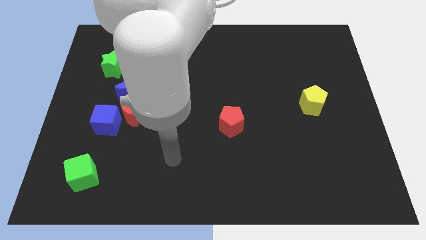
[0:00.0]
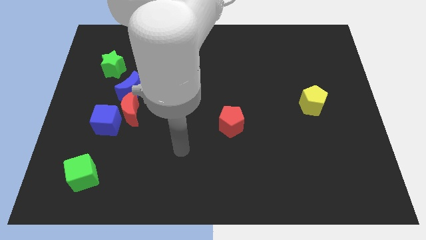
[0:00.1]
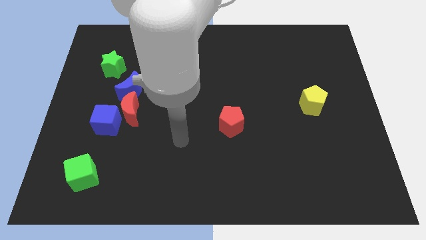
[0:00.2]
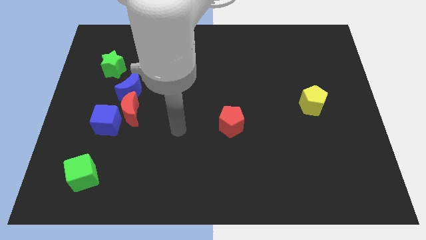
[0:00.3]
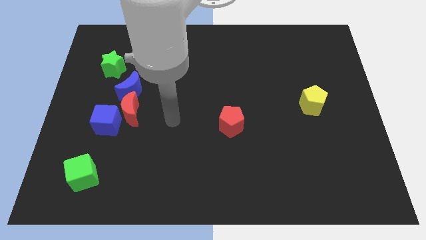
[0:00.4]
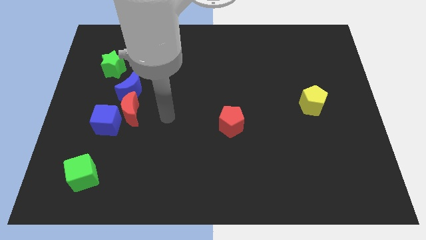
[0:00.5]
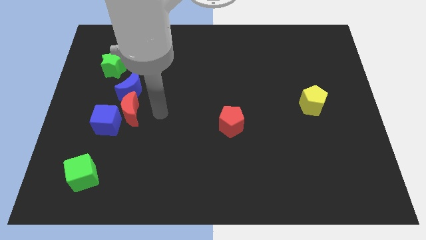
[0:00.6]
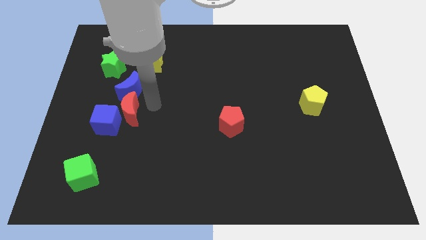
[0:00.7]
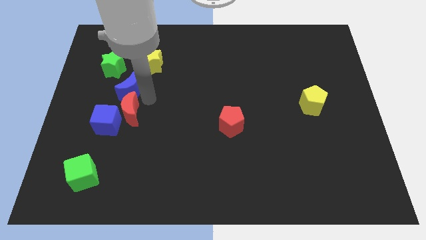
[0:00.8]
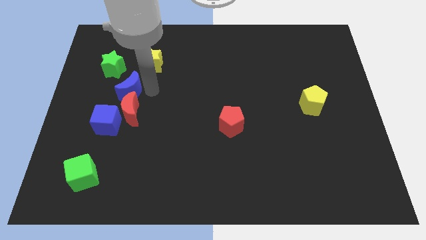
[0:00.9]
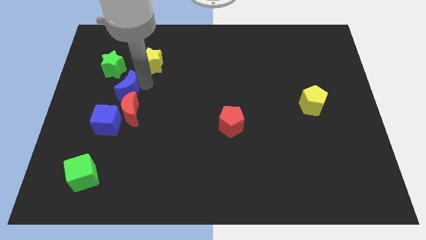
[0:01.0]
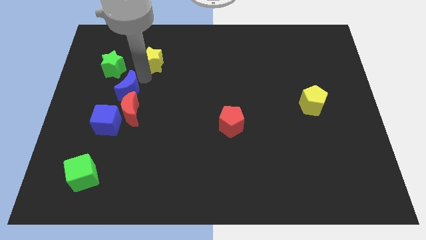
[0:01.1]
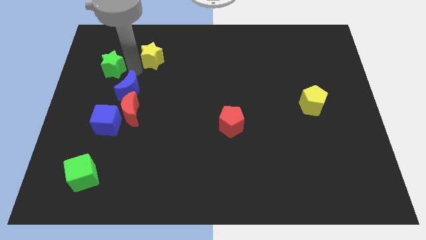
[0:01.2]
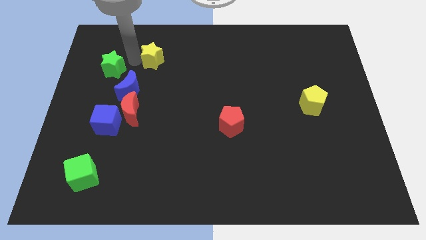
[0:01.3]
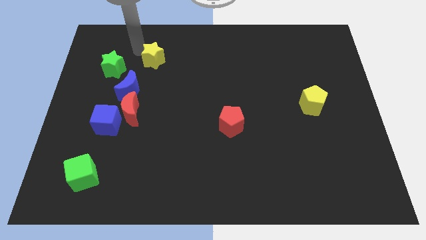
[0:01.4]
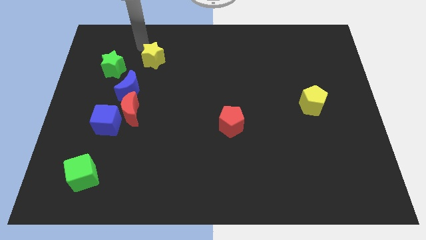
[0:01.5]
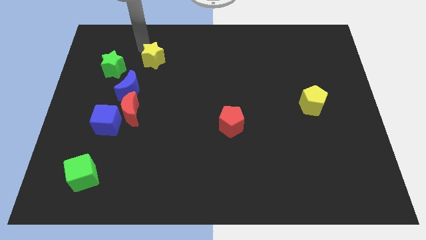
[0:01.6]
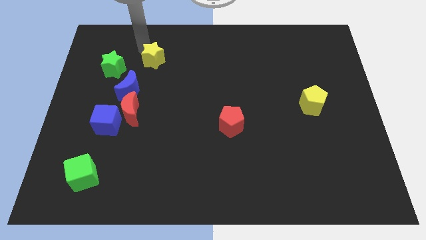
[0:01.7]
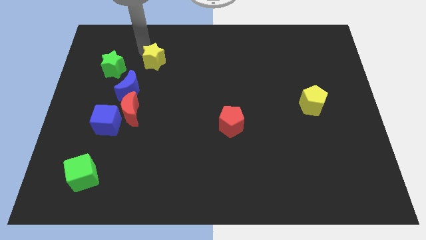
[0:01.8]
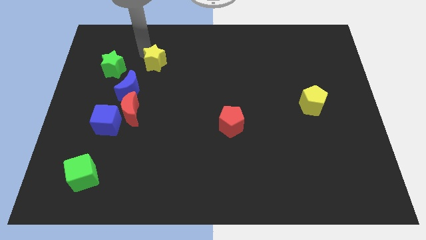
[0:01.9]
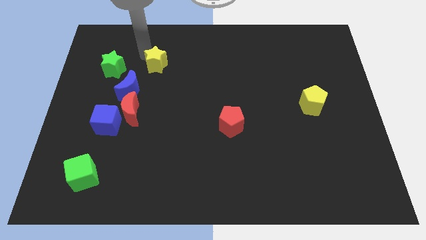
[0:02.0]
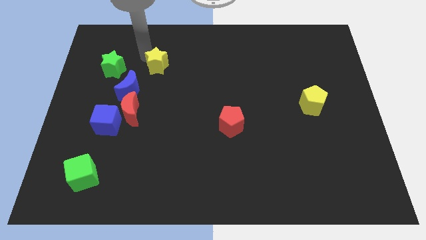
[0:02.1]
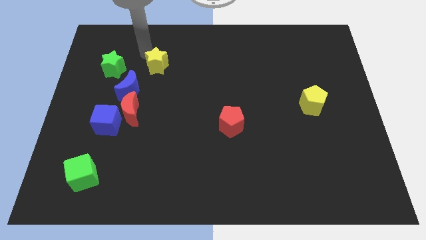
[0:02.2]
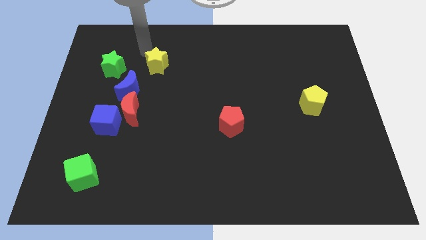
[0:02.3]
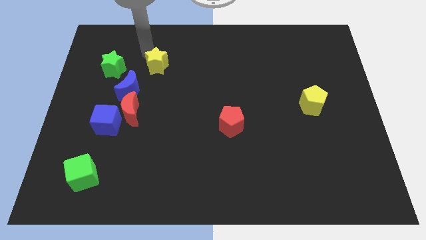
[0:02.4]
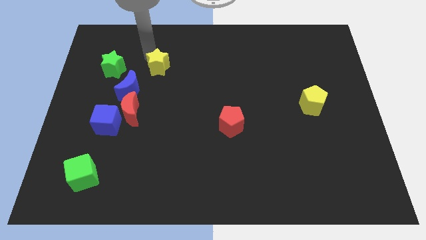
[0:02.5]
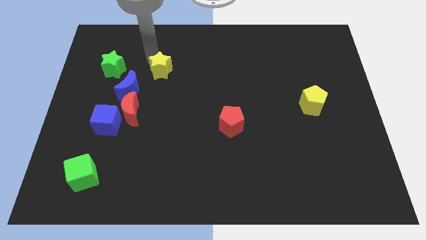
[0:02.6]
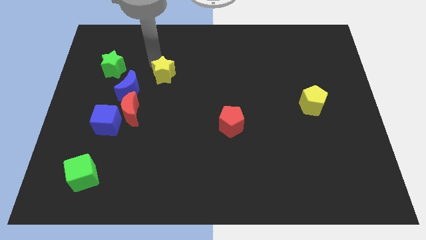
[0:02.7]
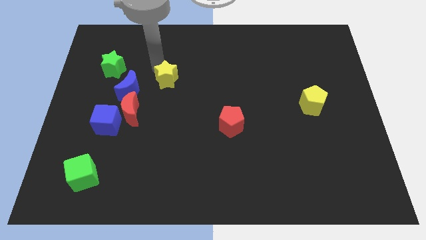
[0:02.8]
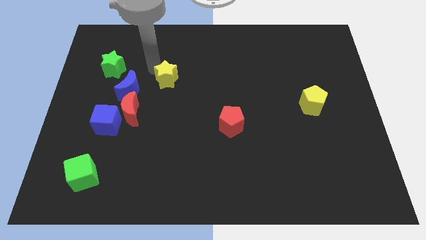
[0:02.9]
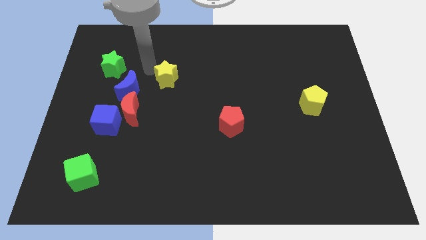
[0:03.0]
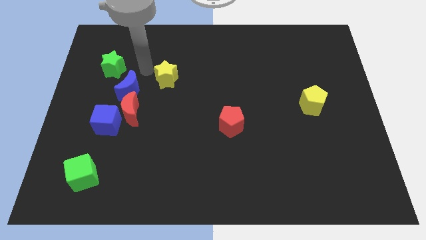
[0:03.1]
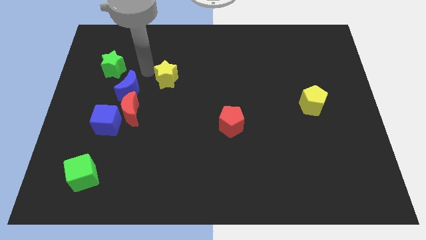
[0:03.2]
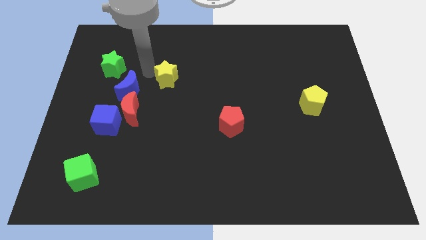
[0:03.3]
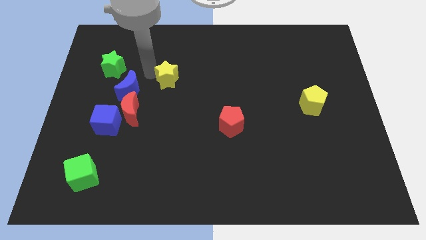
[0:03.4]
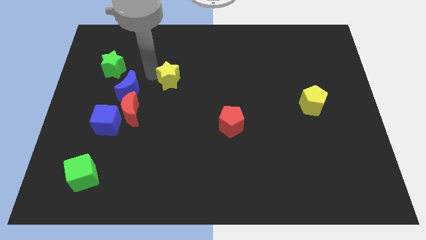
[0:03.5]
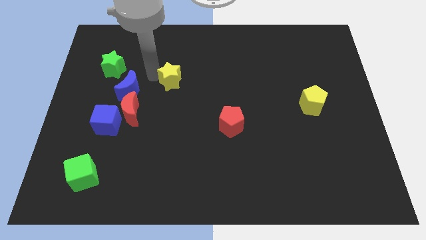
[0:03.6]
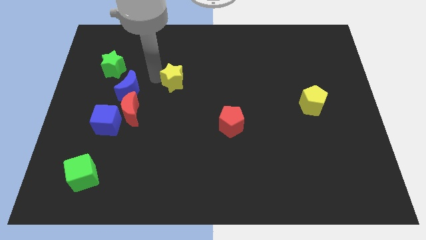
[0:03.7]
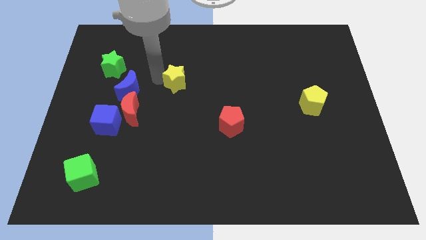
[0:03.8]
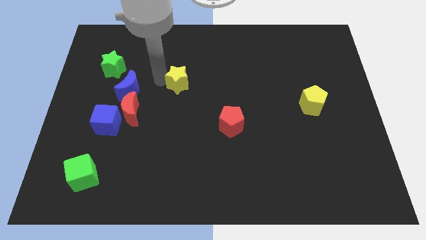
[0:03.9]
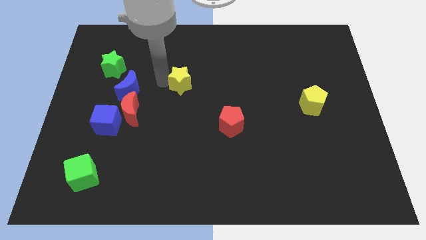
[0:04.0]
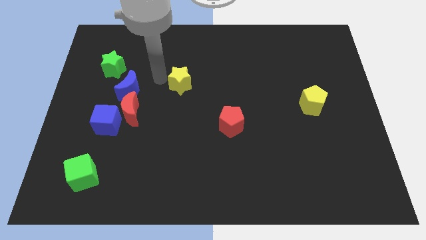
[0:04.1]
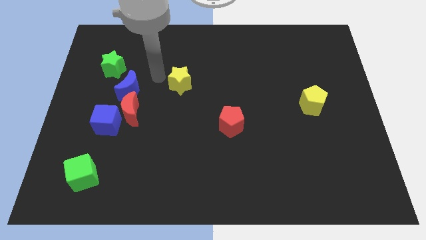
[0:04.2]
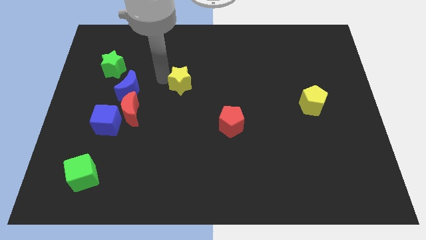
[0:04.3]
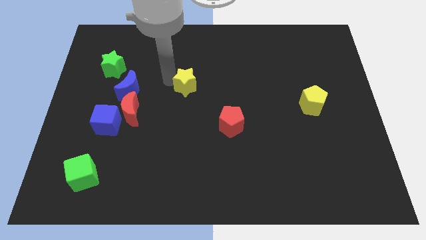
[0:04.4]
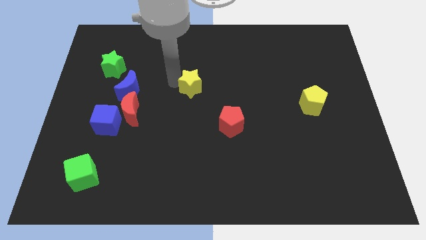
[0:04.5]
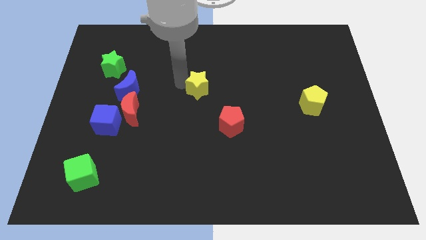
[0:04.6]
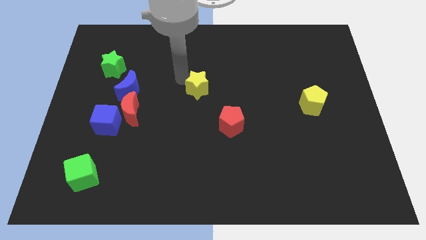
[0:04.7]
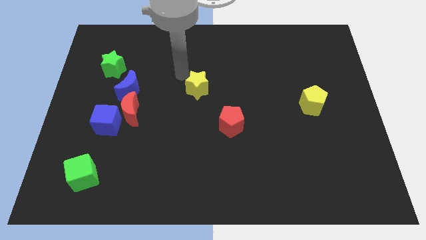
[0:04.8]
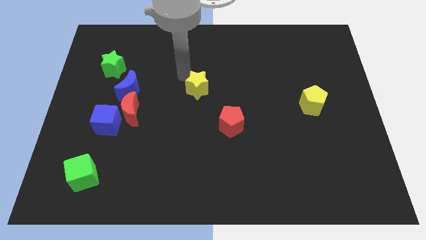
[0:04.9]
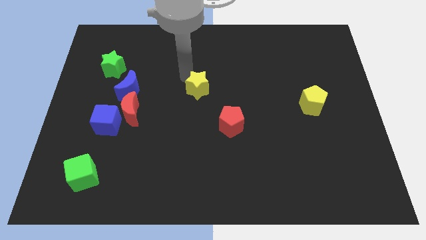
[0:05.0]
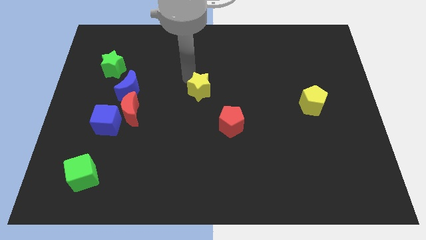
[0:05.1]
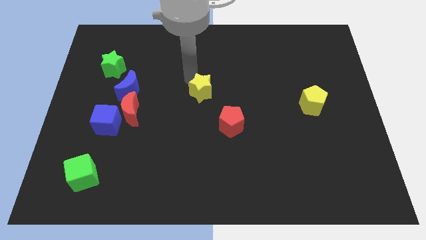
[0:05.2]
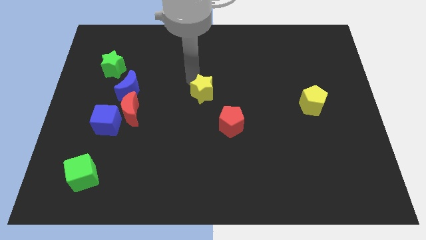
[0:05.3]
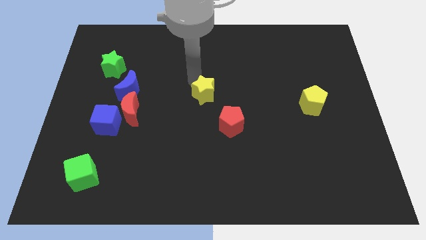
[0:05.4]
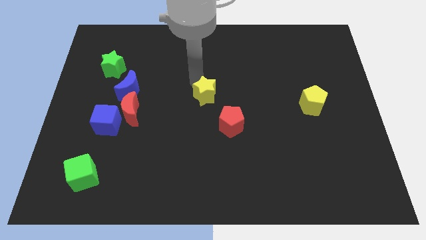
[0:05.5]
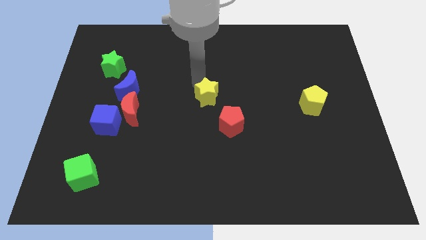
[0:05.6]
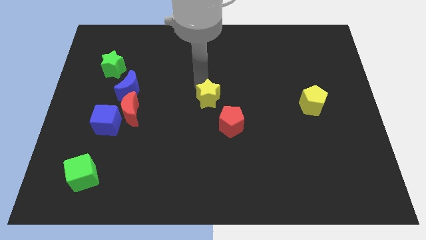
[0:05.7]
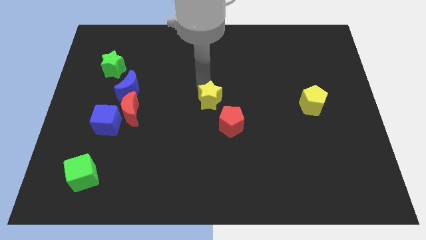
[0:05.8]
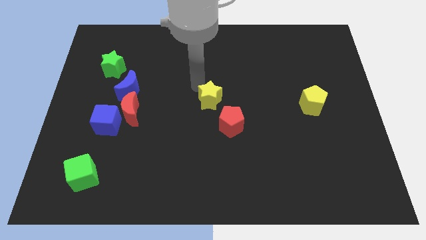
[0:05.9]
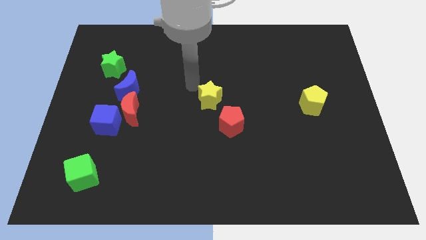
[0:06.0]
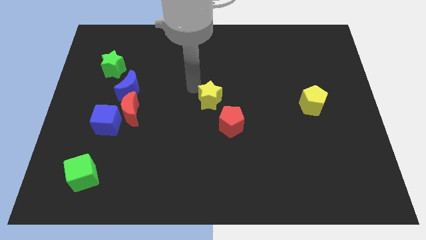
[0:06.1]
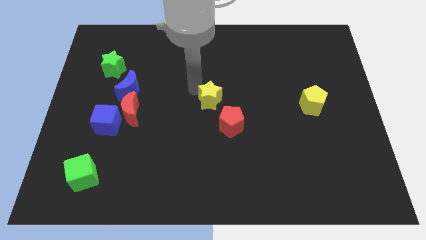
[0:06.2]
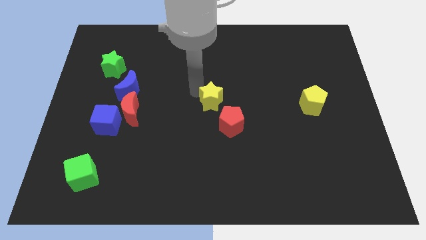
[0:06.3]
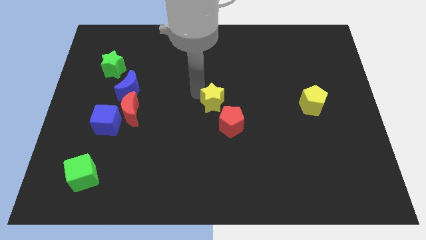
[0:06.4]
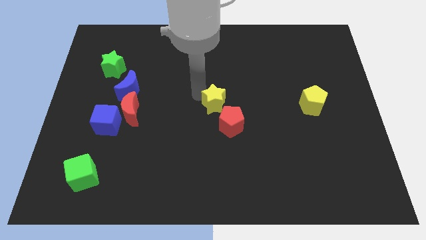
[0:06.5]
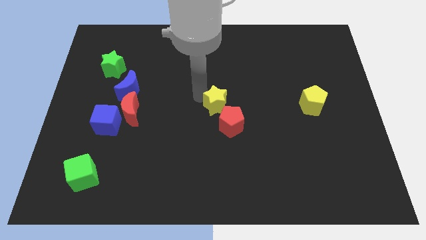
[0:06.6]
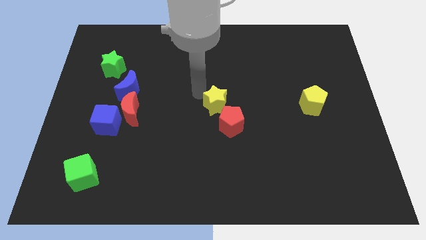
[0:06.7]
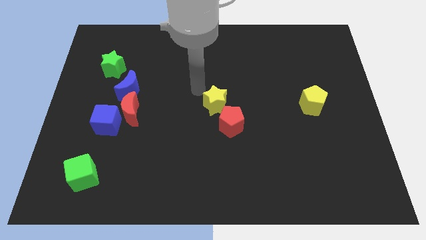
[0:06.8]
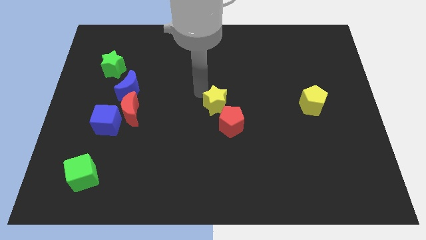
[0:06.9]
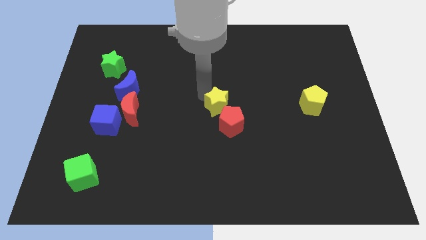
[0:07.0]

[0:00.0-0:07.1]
put the yellow star close to the red pentagon

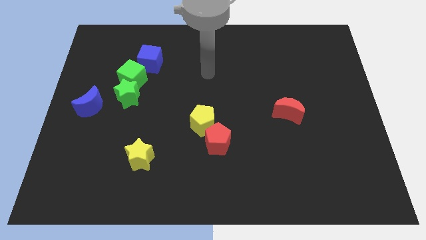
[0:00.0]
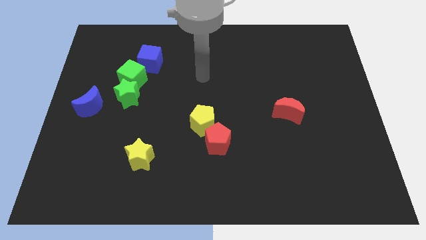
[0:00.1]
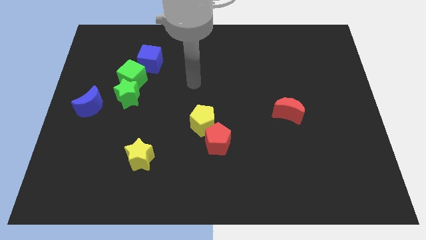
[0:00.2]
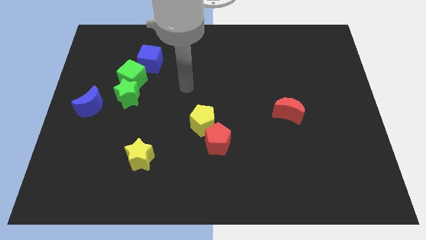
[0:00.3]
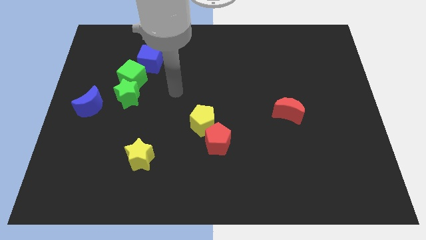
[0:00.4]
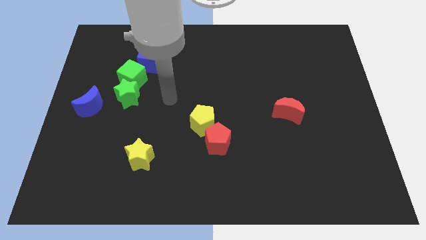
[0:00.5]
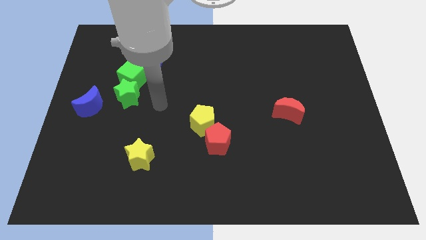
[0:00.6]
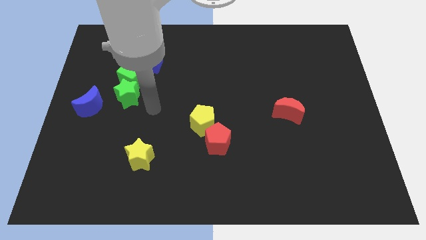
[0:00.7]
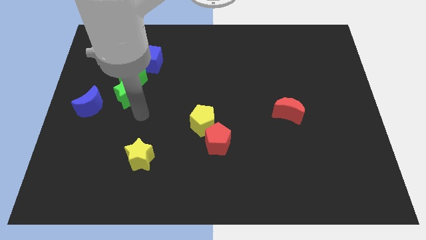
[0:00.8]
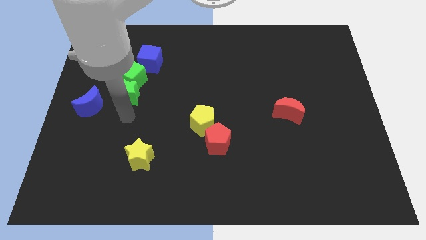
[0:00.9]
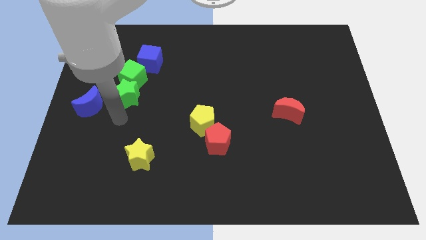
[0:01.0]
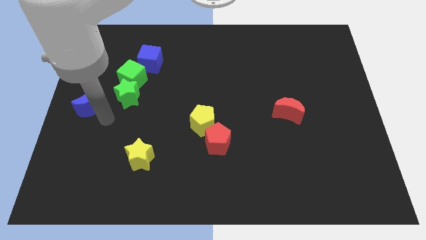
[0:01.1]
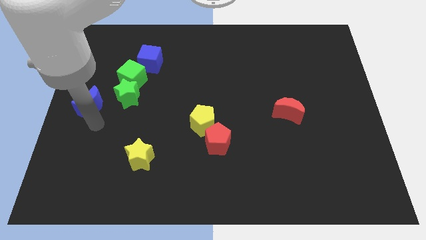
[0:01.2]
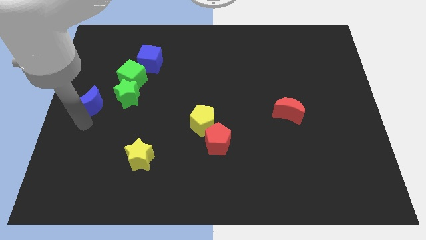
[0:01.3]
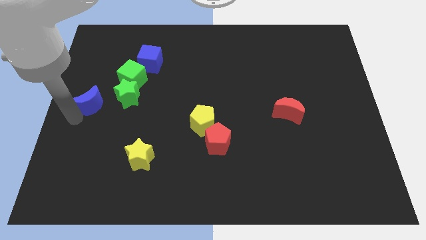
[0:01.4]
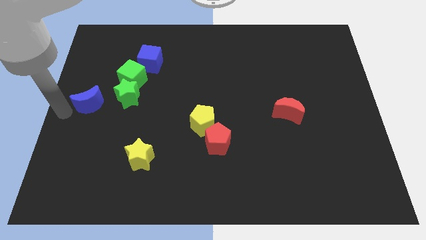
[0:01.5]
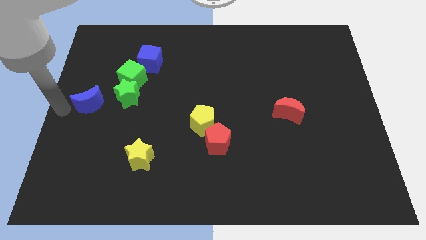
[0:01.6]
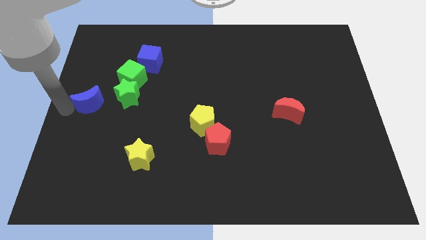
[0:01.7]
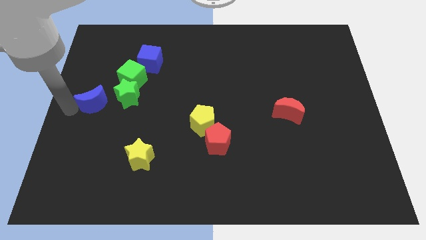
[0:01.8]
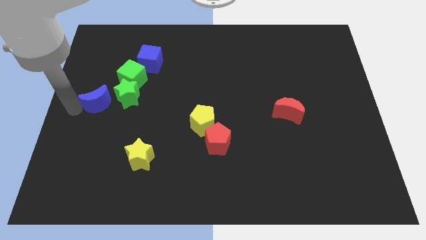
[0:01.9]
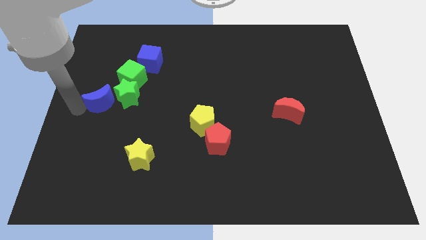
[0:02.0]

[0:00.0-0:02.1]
push the blue moon to the green star
